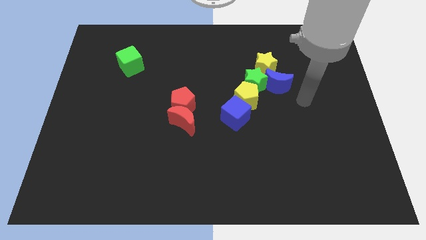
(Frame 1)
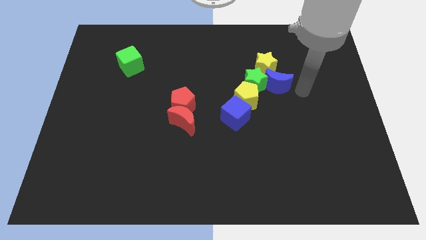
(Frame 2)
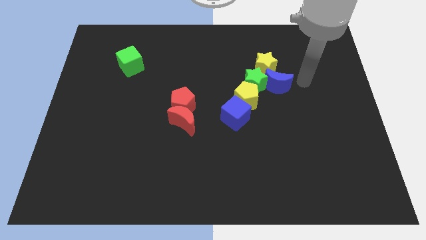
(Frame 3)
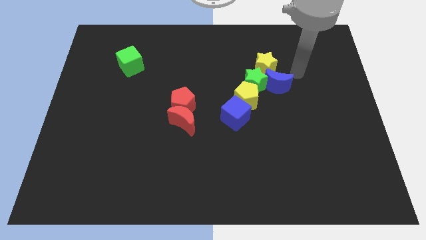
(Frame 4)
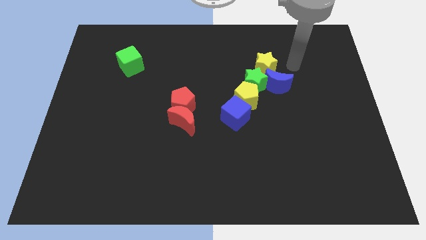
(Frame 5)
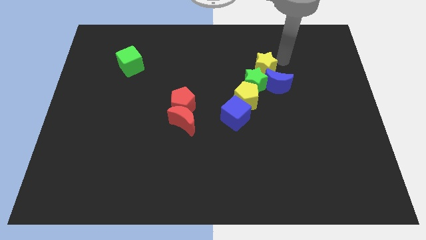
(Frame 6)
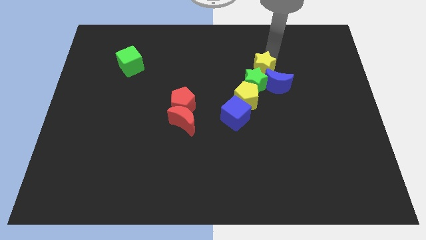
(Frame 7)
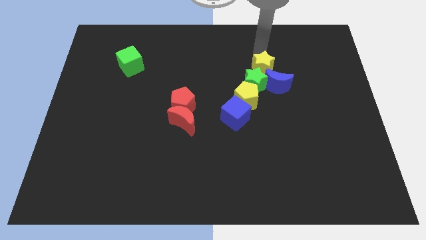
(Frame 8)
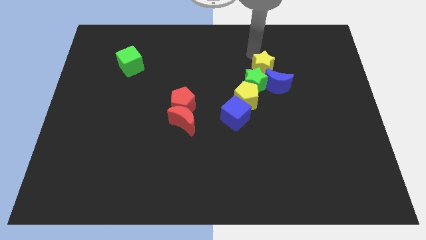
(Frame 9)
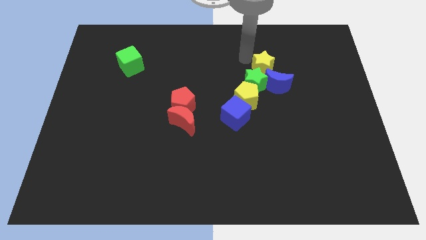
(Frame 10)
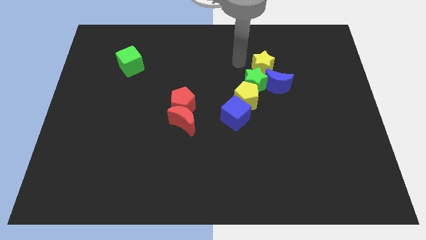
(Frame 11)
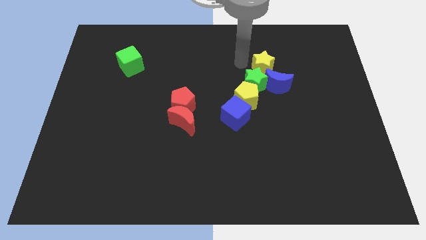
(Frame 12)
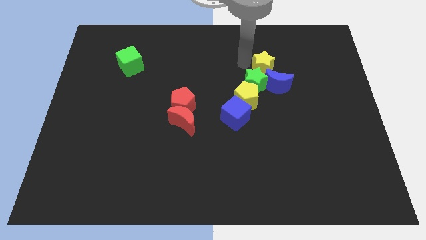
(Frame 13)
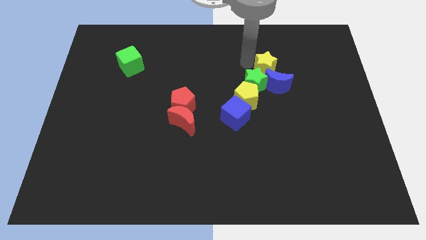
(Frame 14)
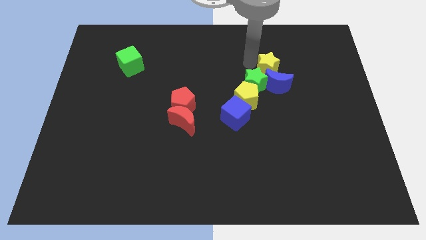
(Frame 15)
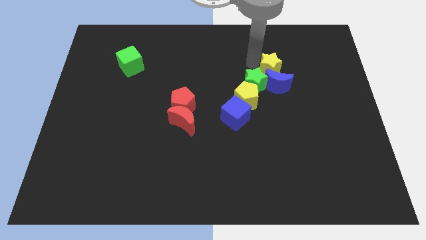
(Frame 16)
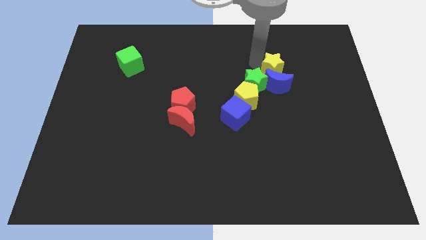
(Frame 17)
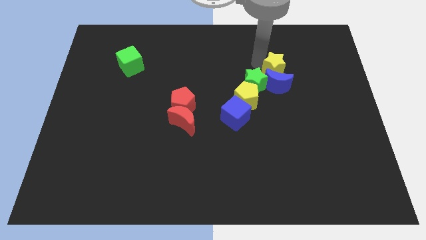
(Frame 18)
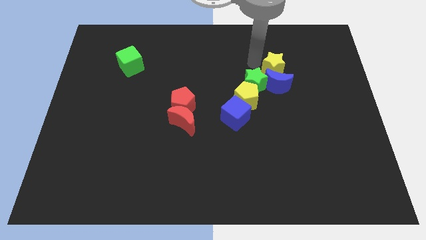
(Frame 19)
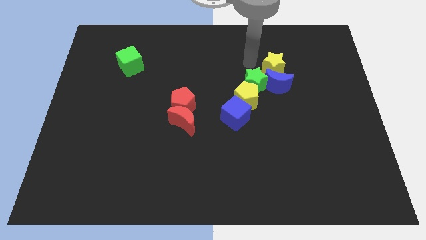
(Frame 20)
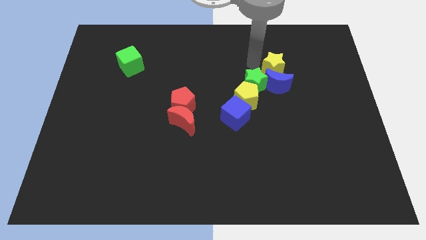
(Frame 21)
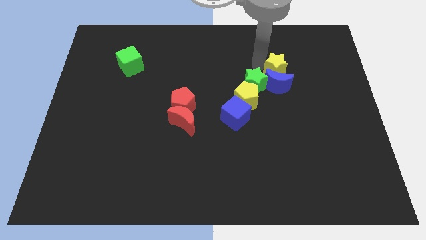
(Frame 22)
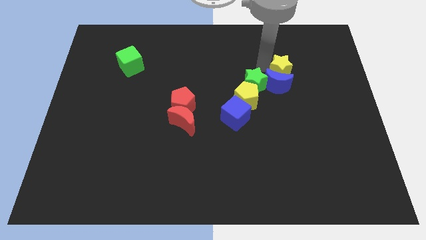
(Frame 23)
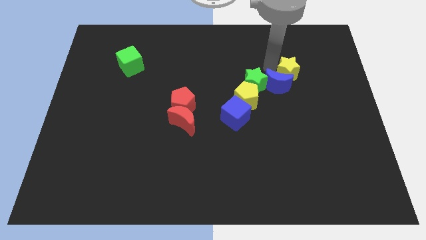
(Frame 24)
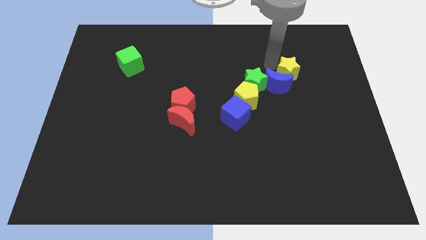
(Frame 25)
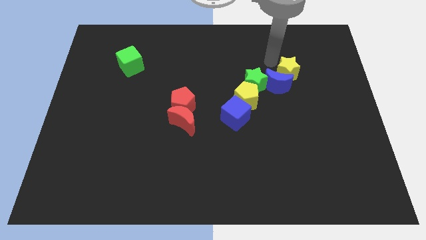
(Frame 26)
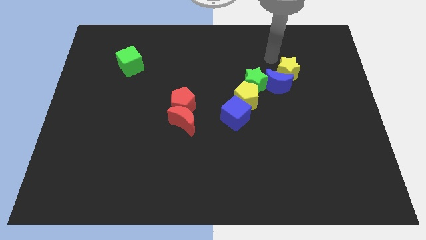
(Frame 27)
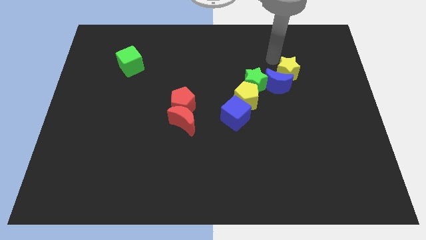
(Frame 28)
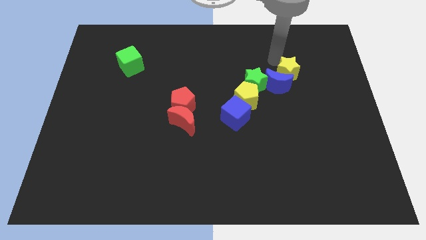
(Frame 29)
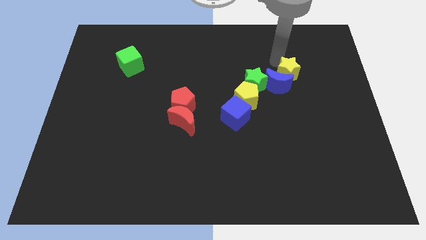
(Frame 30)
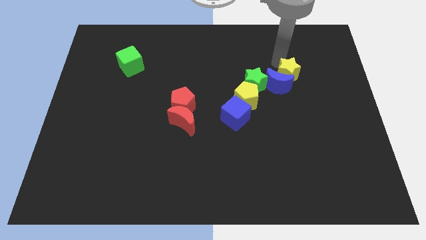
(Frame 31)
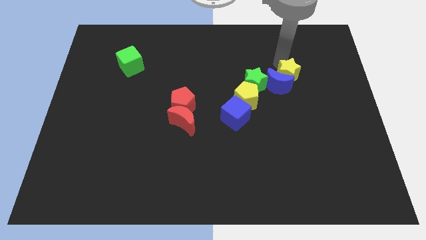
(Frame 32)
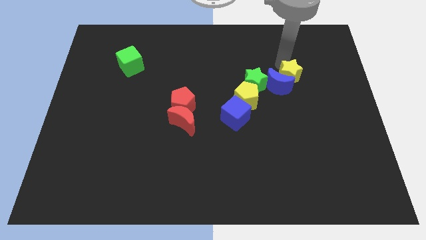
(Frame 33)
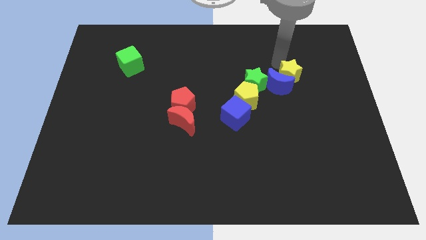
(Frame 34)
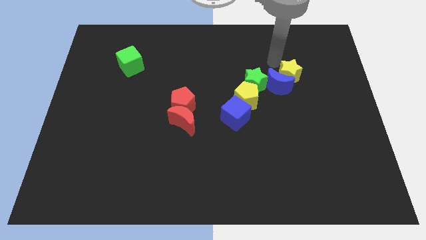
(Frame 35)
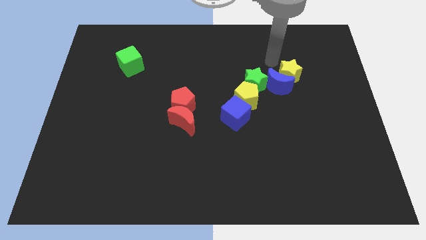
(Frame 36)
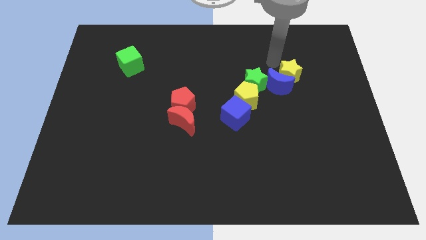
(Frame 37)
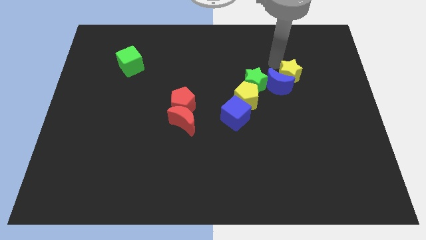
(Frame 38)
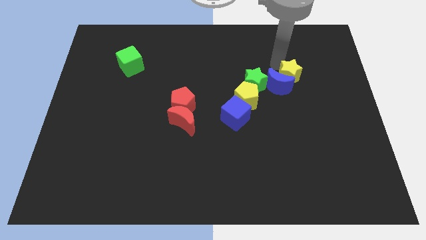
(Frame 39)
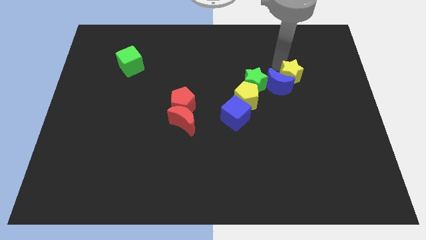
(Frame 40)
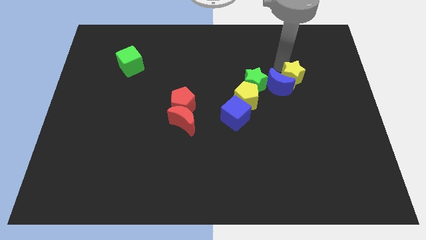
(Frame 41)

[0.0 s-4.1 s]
push the yellow star slightly down and then to the right

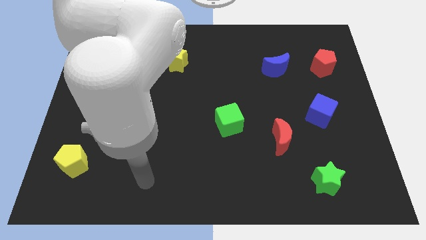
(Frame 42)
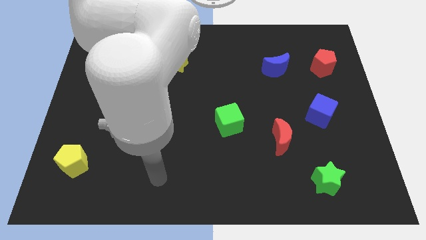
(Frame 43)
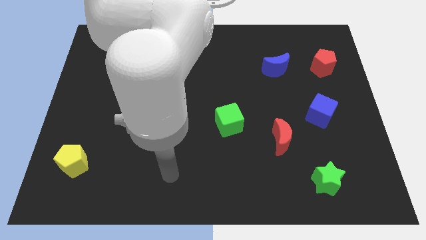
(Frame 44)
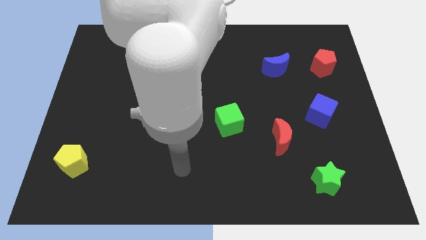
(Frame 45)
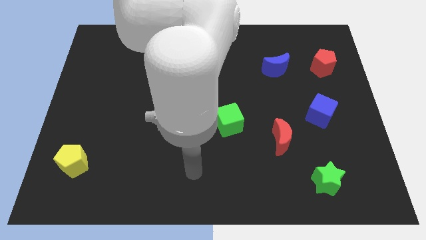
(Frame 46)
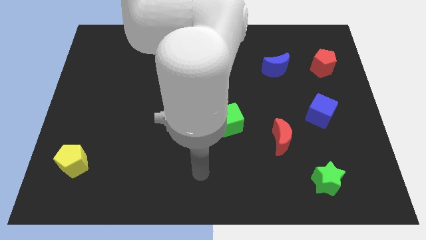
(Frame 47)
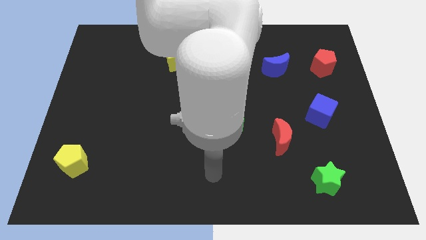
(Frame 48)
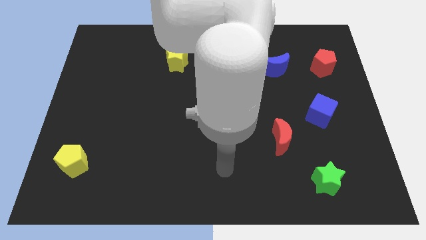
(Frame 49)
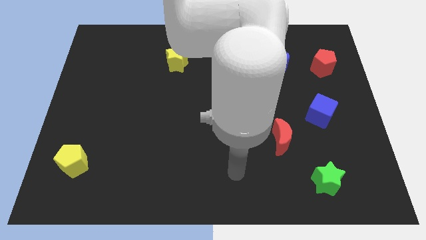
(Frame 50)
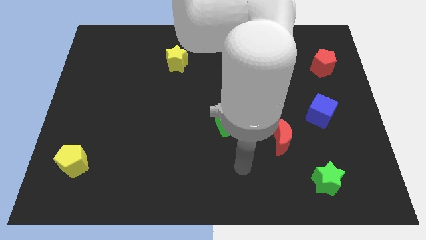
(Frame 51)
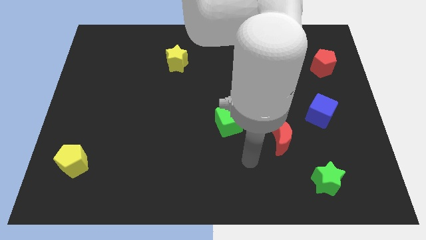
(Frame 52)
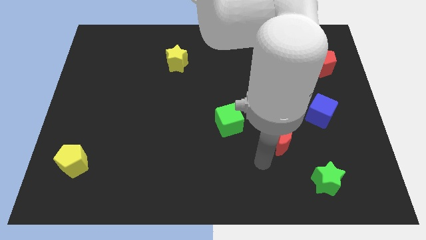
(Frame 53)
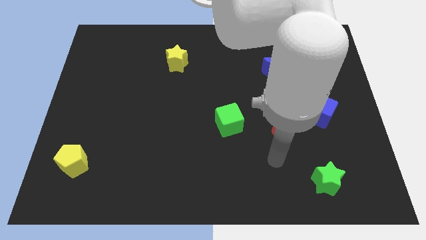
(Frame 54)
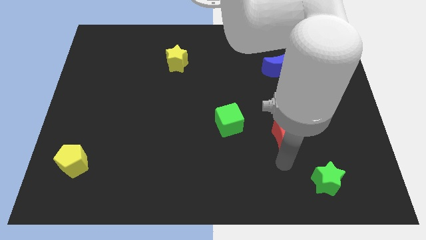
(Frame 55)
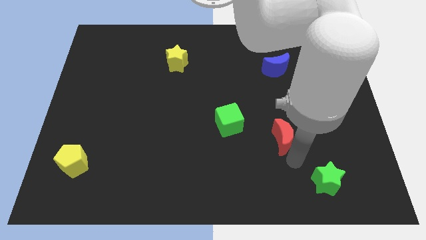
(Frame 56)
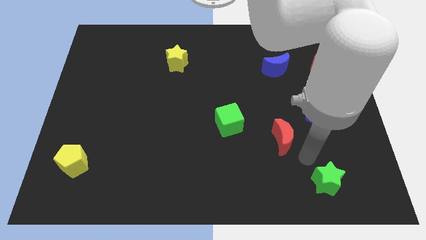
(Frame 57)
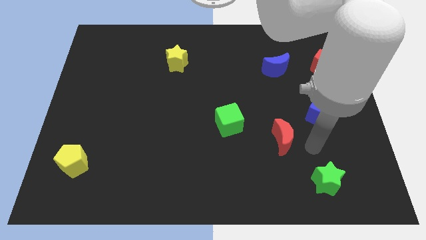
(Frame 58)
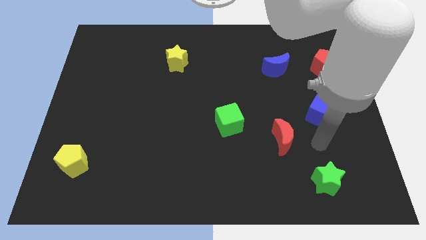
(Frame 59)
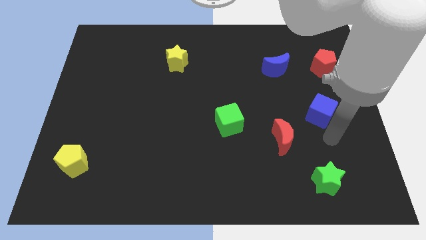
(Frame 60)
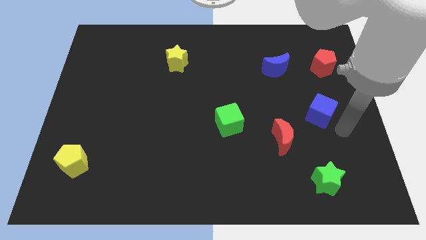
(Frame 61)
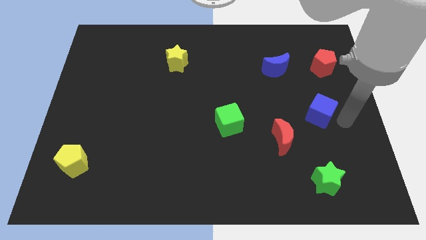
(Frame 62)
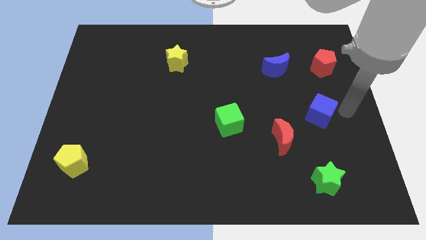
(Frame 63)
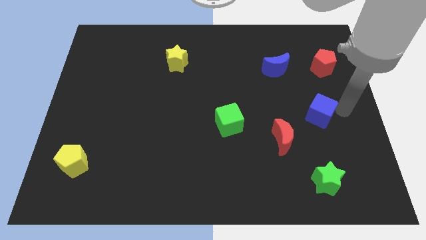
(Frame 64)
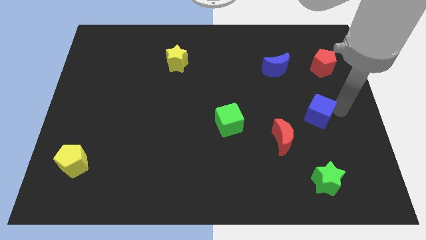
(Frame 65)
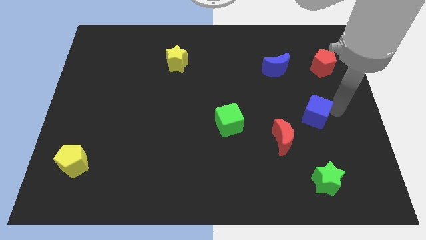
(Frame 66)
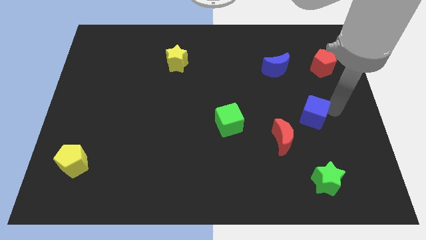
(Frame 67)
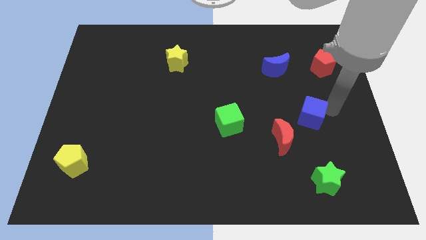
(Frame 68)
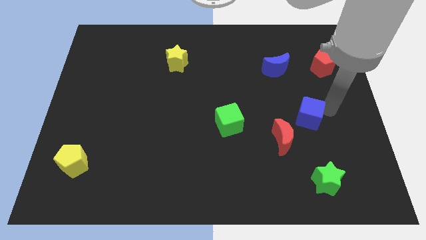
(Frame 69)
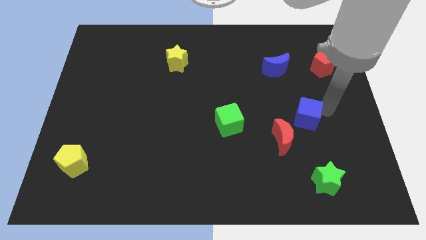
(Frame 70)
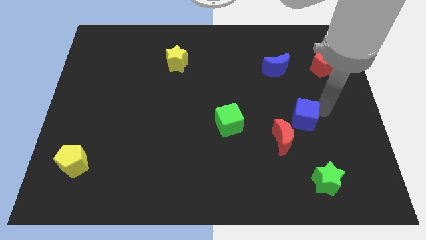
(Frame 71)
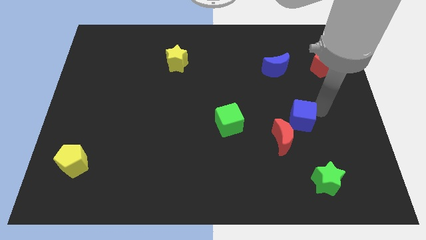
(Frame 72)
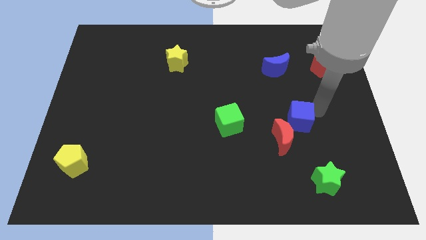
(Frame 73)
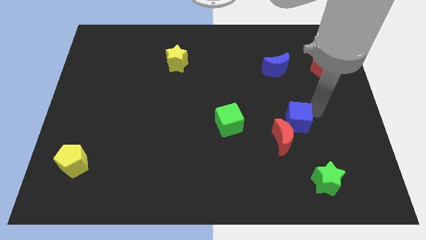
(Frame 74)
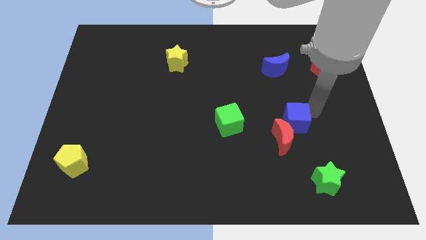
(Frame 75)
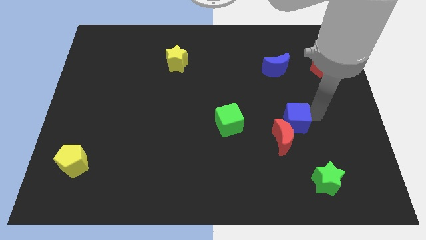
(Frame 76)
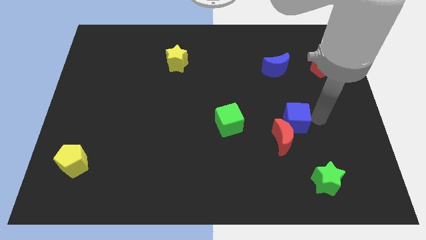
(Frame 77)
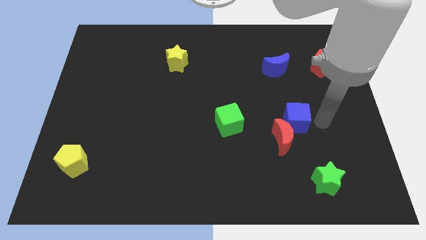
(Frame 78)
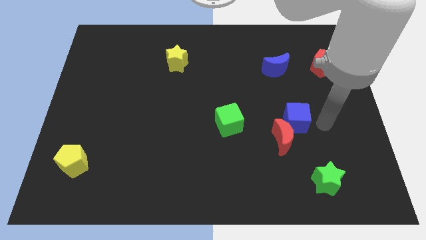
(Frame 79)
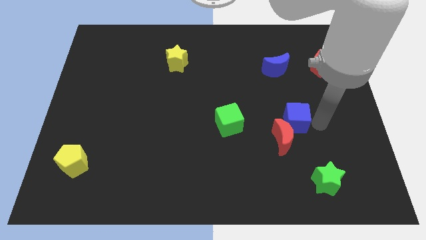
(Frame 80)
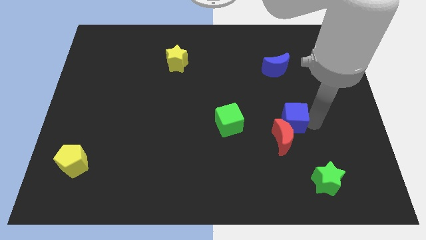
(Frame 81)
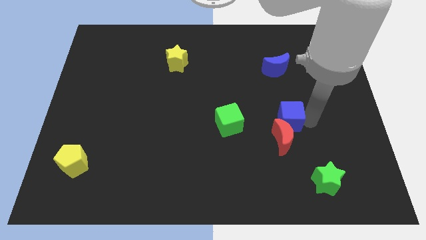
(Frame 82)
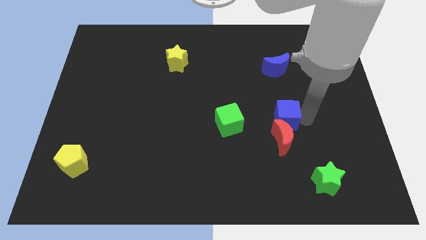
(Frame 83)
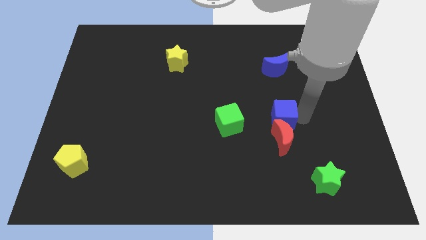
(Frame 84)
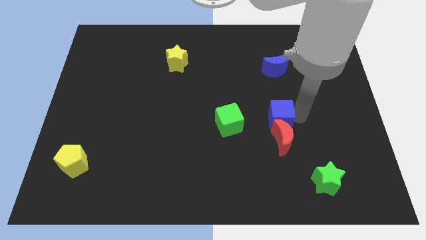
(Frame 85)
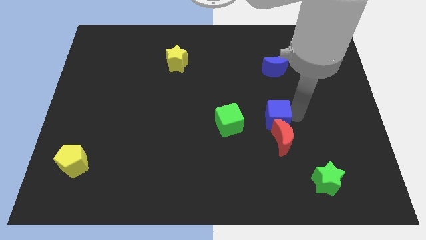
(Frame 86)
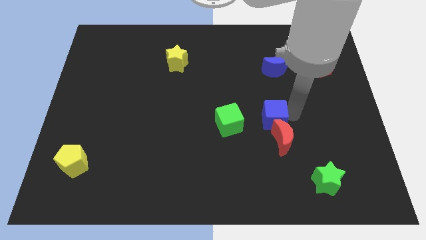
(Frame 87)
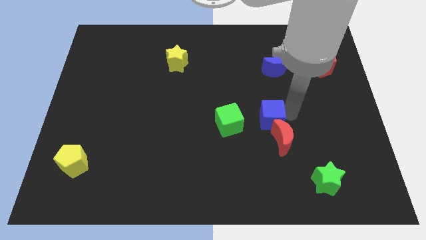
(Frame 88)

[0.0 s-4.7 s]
push the blue cube downwards and then left somewhat
